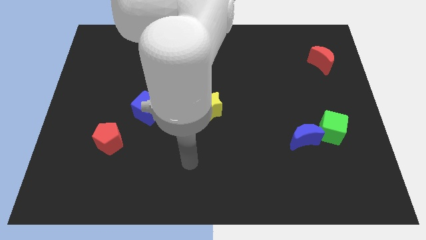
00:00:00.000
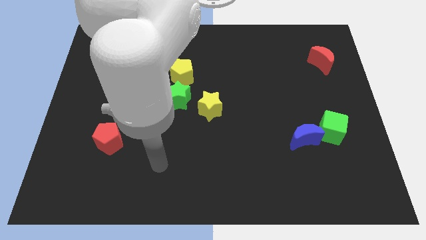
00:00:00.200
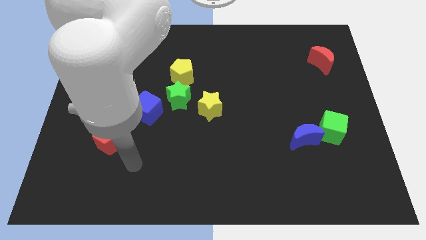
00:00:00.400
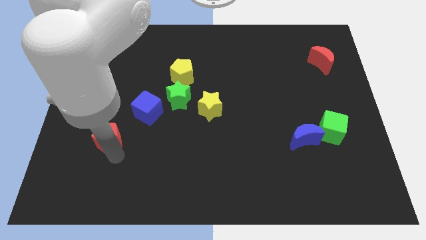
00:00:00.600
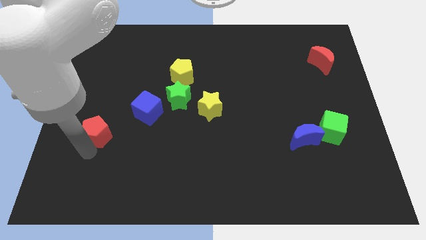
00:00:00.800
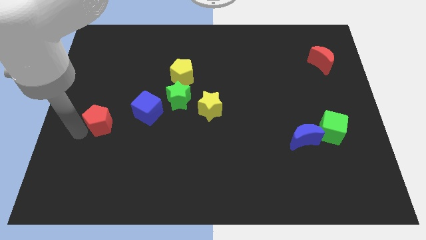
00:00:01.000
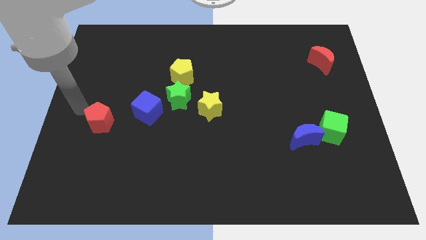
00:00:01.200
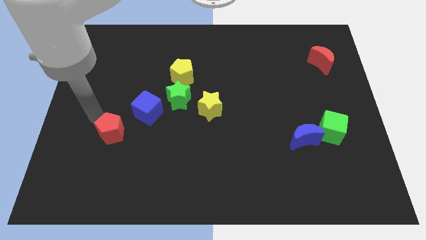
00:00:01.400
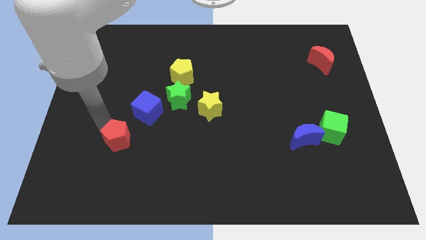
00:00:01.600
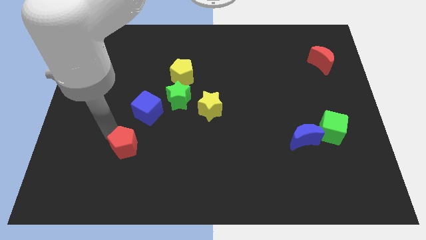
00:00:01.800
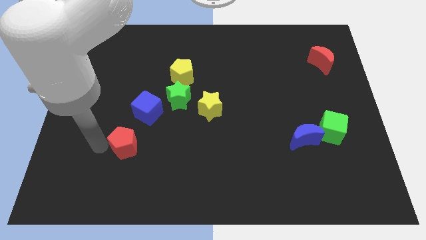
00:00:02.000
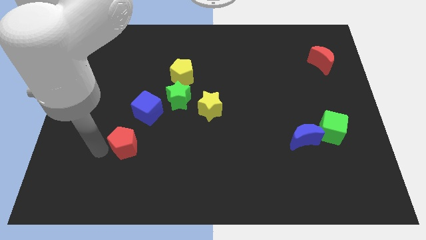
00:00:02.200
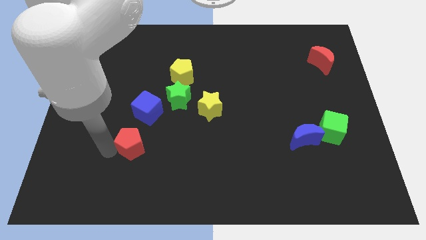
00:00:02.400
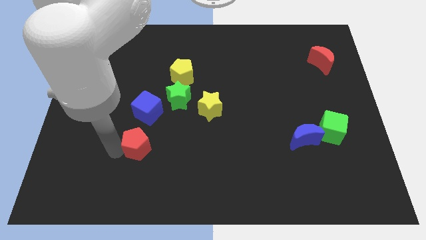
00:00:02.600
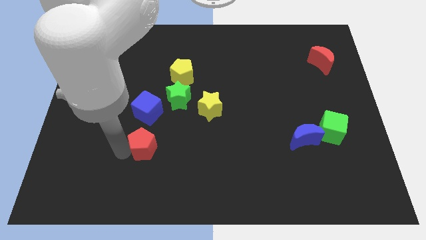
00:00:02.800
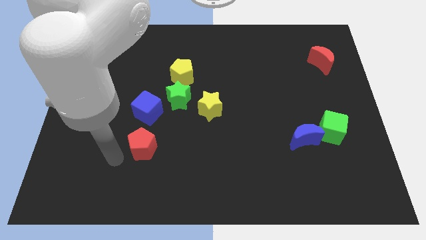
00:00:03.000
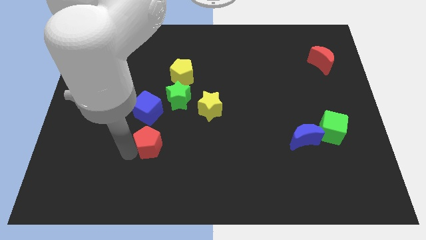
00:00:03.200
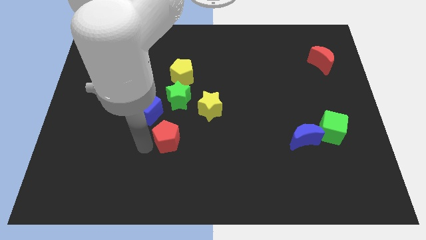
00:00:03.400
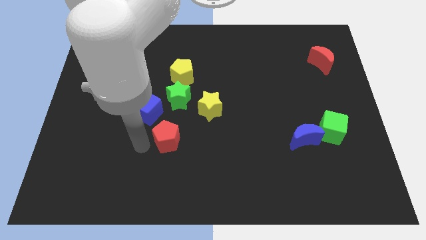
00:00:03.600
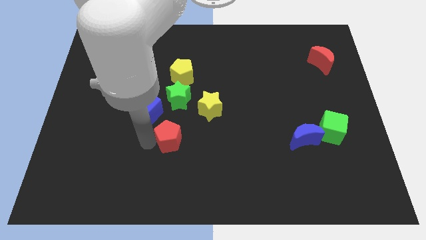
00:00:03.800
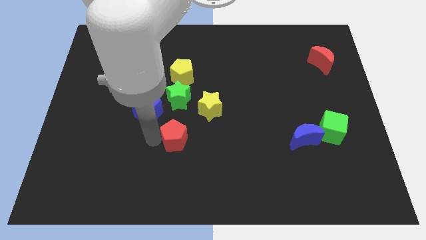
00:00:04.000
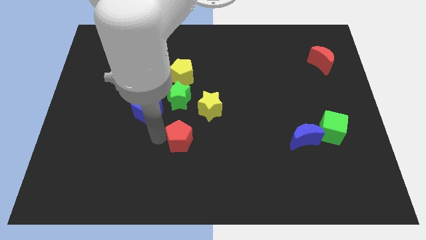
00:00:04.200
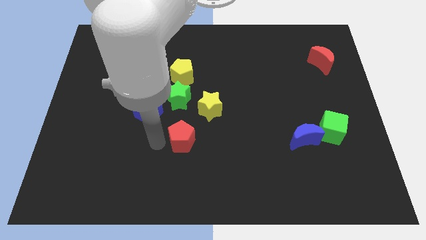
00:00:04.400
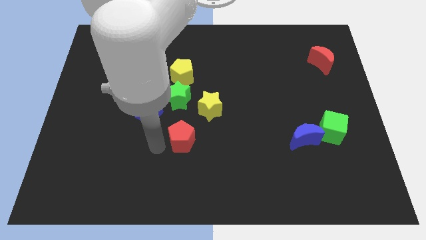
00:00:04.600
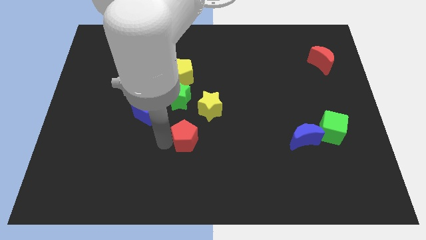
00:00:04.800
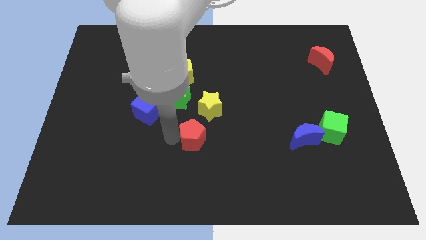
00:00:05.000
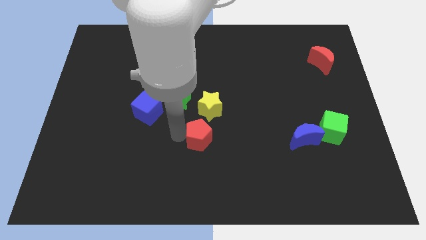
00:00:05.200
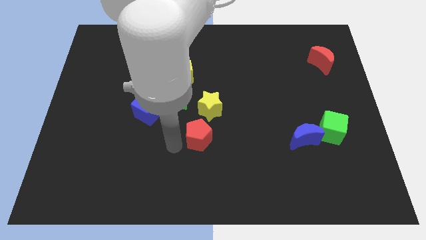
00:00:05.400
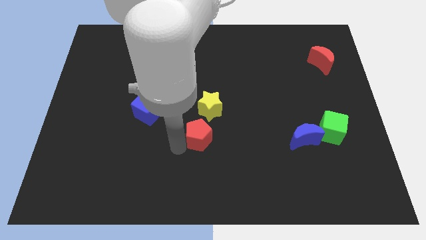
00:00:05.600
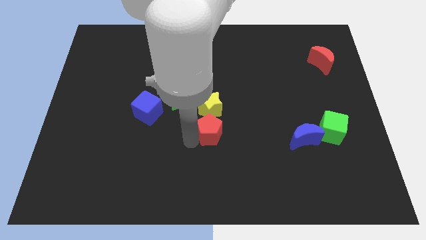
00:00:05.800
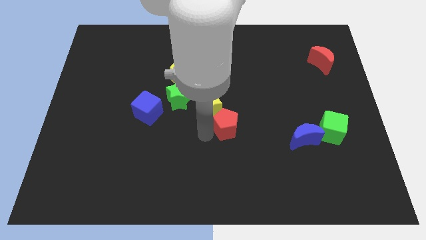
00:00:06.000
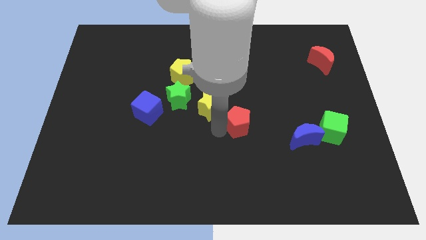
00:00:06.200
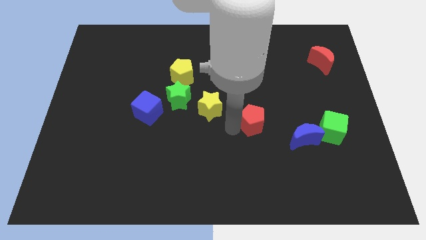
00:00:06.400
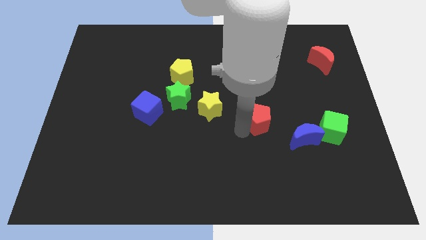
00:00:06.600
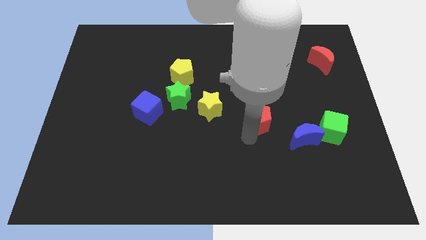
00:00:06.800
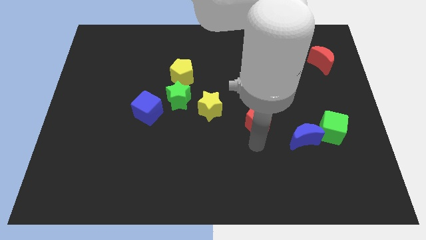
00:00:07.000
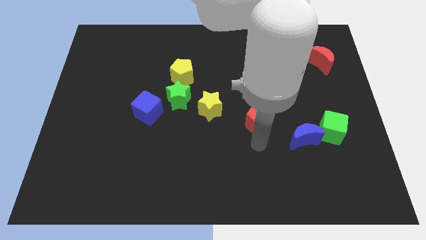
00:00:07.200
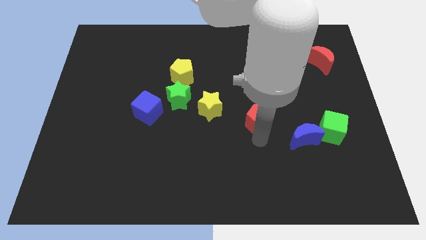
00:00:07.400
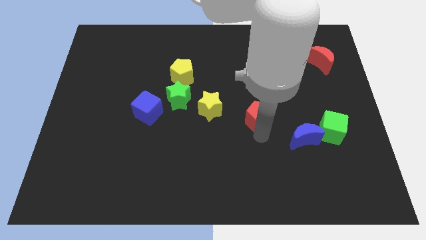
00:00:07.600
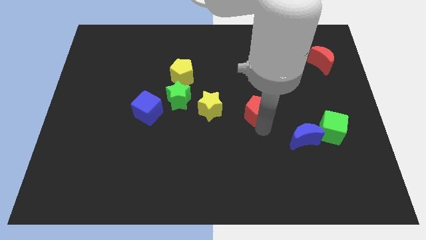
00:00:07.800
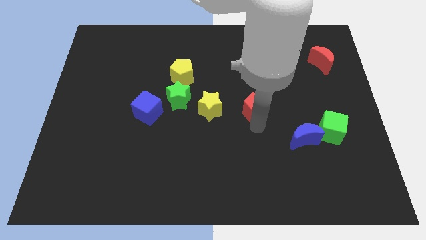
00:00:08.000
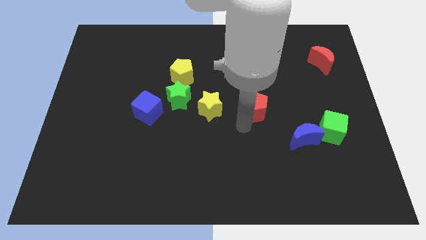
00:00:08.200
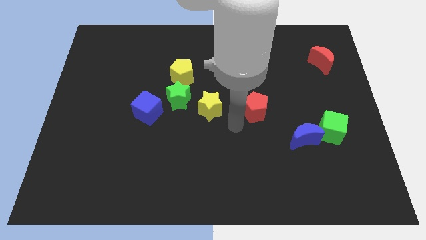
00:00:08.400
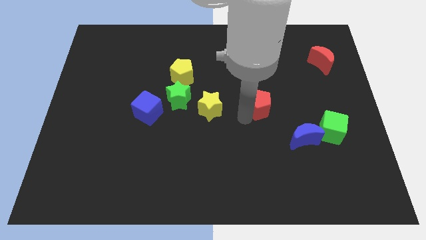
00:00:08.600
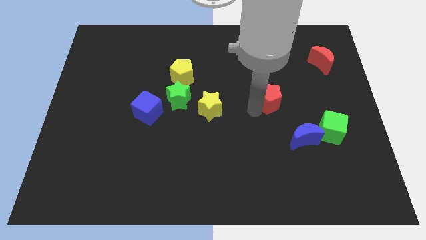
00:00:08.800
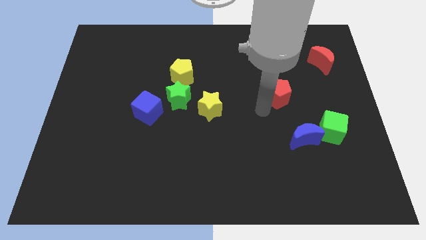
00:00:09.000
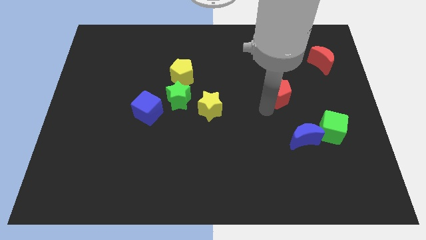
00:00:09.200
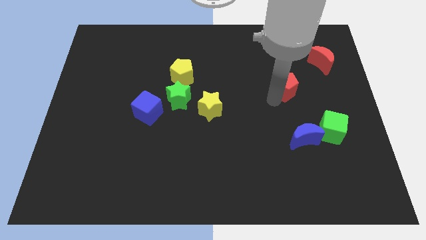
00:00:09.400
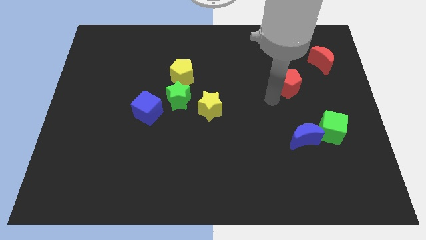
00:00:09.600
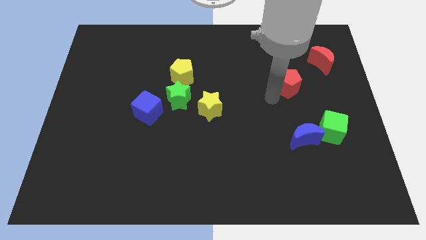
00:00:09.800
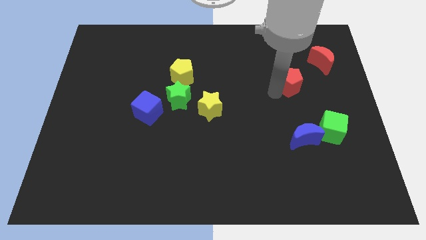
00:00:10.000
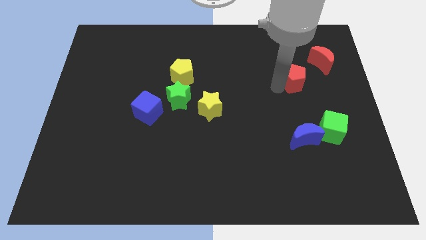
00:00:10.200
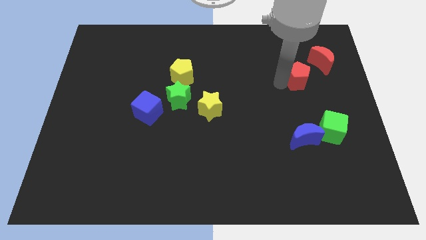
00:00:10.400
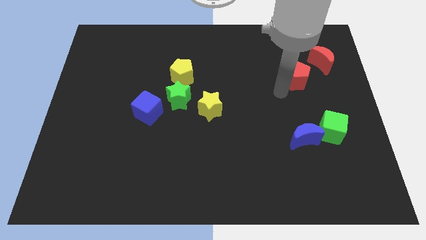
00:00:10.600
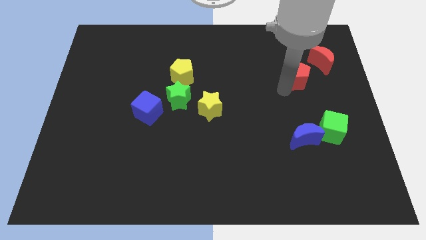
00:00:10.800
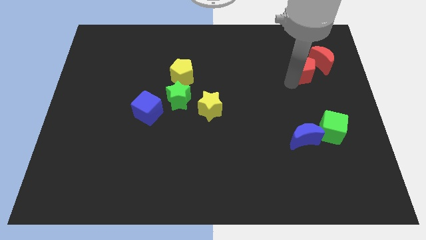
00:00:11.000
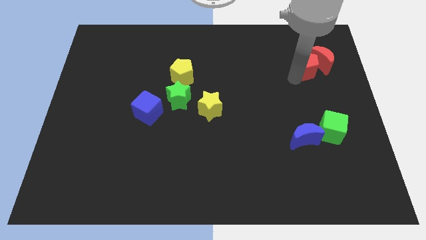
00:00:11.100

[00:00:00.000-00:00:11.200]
move the red pentagon next to the red moon

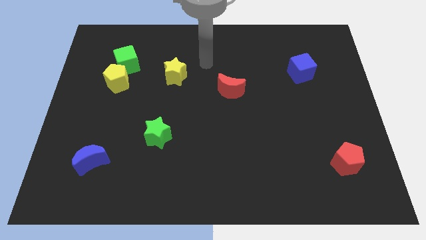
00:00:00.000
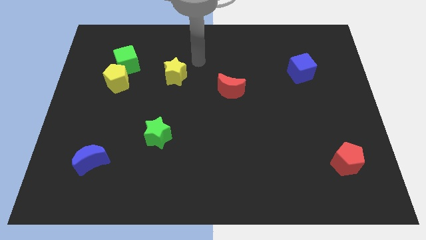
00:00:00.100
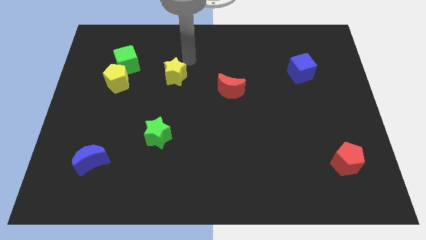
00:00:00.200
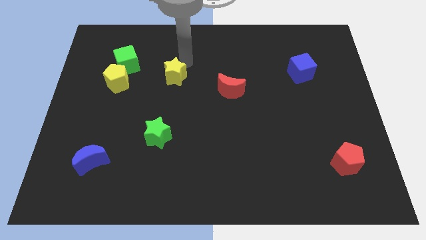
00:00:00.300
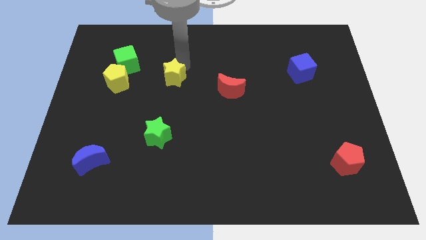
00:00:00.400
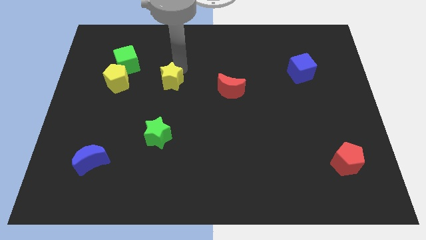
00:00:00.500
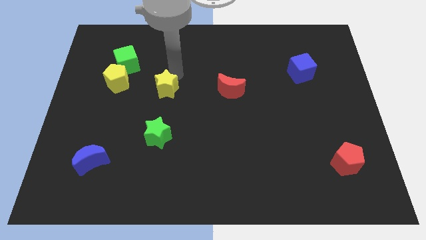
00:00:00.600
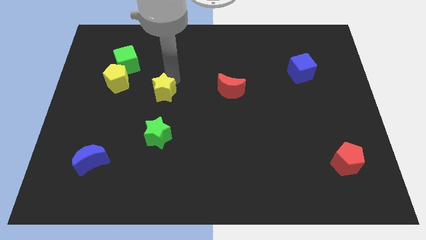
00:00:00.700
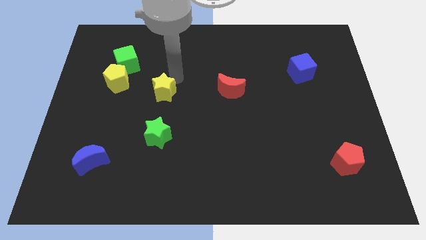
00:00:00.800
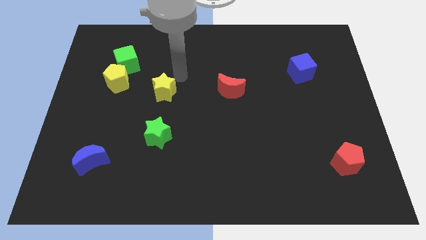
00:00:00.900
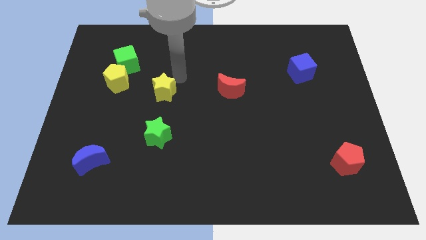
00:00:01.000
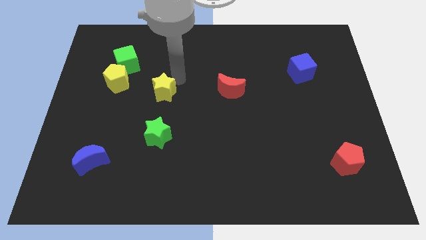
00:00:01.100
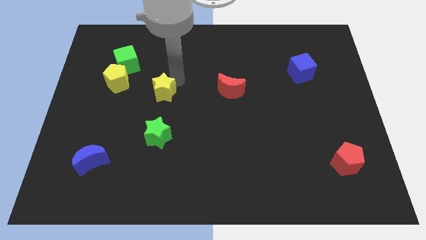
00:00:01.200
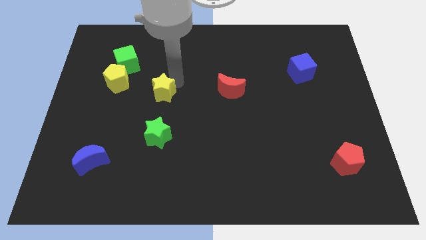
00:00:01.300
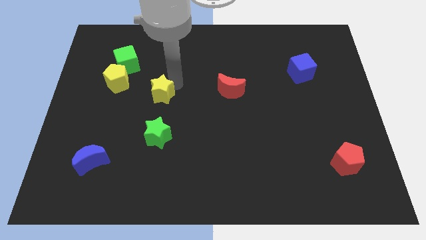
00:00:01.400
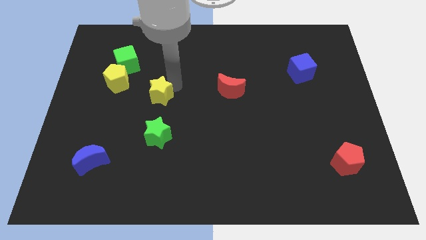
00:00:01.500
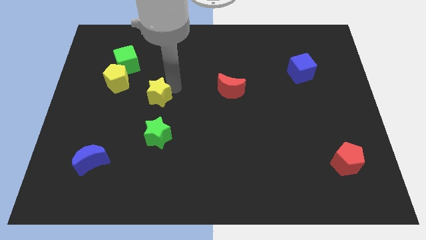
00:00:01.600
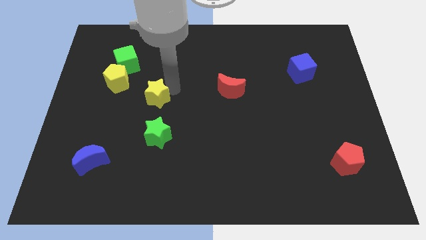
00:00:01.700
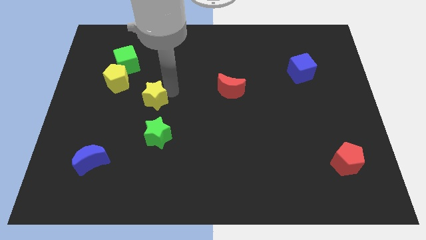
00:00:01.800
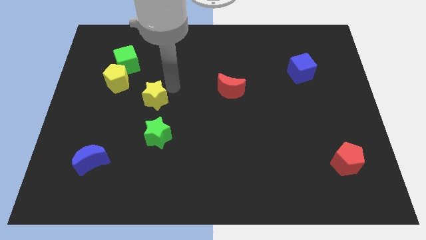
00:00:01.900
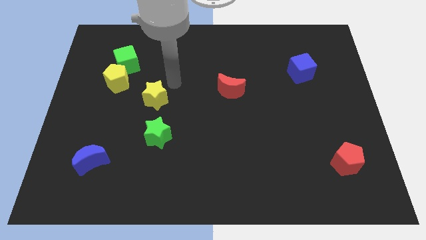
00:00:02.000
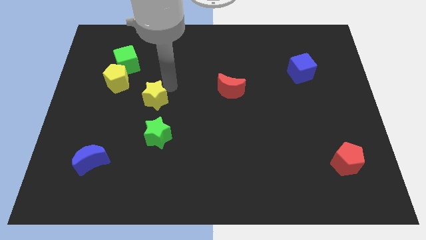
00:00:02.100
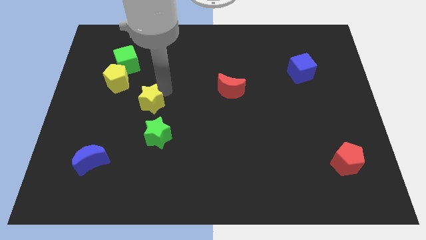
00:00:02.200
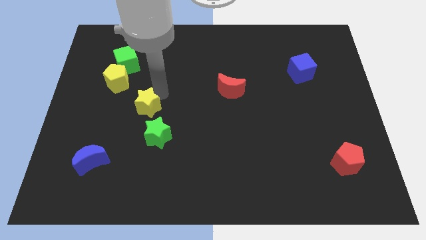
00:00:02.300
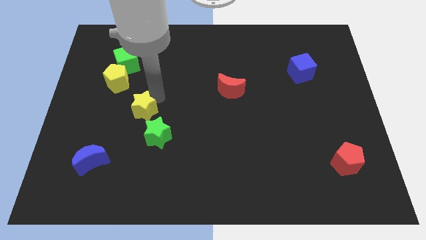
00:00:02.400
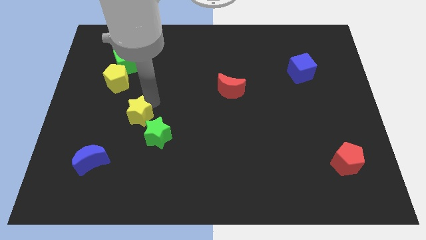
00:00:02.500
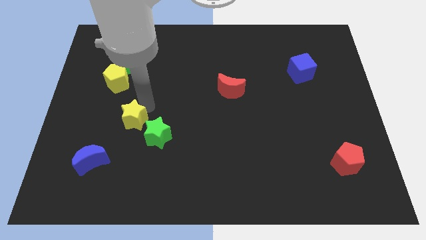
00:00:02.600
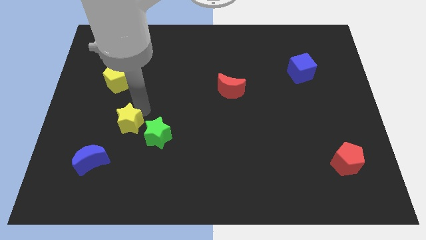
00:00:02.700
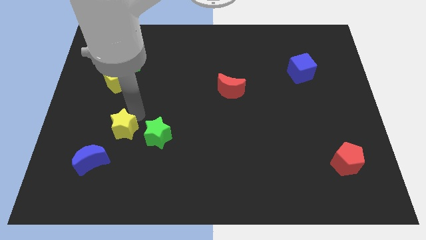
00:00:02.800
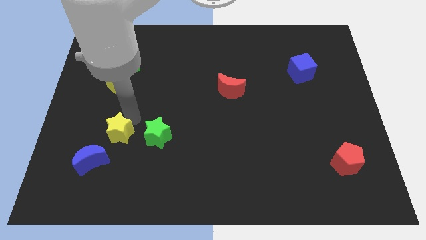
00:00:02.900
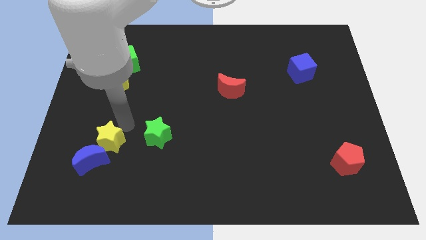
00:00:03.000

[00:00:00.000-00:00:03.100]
put the yellow star close to the blue moon
